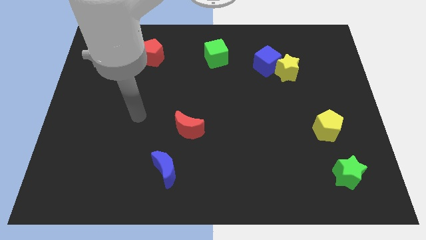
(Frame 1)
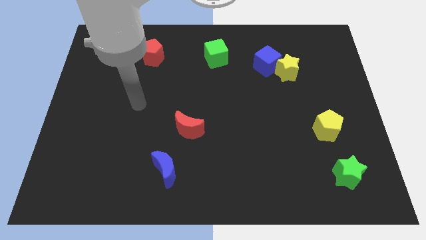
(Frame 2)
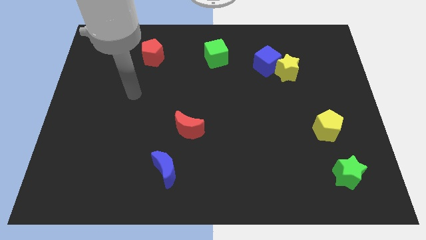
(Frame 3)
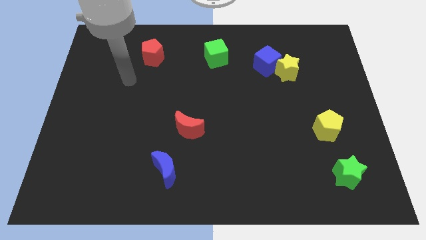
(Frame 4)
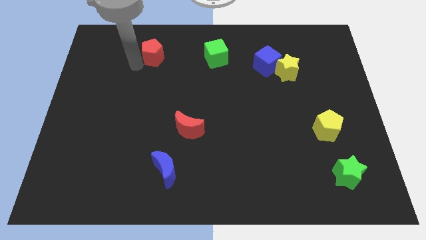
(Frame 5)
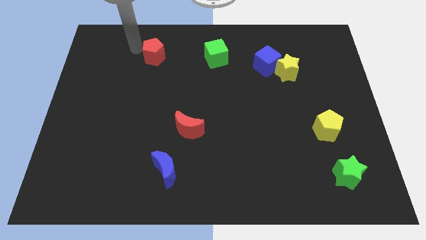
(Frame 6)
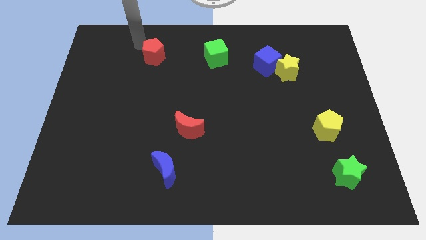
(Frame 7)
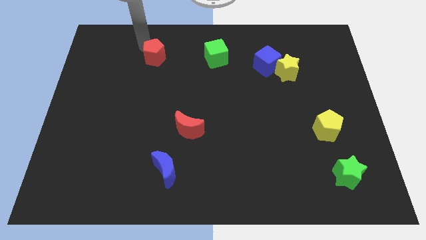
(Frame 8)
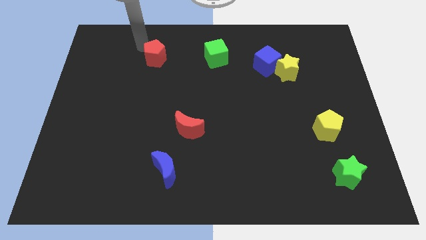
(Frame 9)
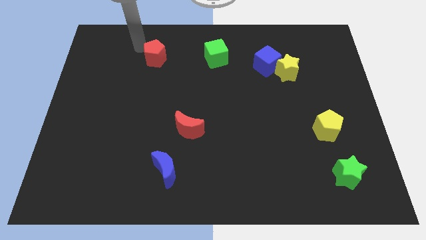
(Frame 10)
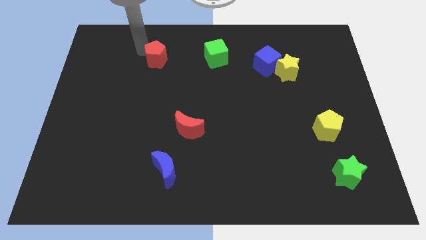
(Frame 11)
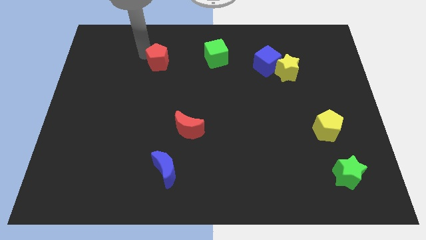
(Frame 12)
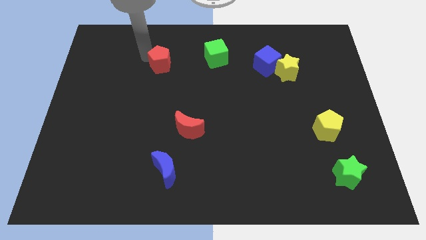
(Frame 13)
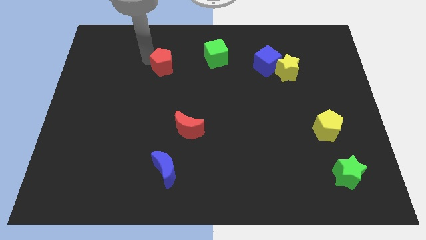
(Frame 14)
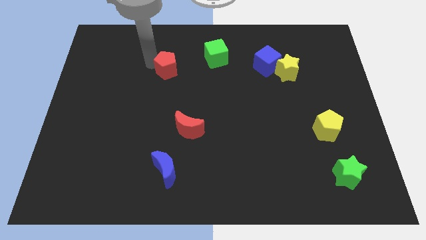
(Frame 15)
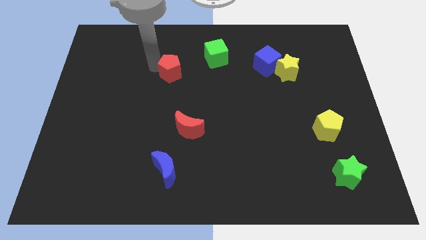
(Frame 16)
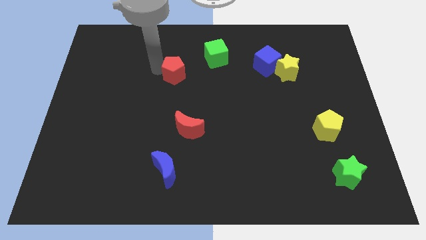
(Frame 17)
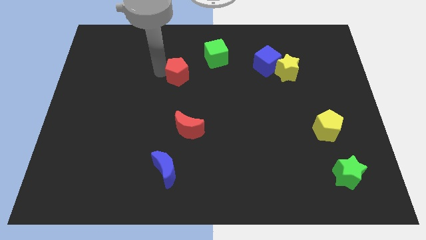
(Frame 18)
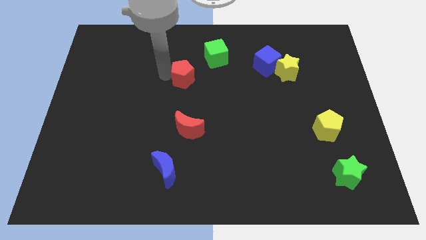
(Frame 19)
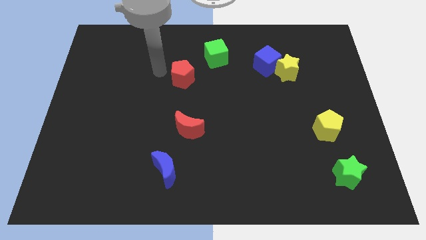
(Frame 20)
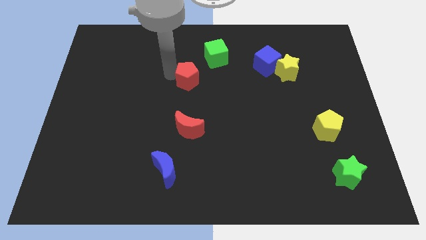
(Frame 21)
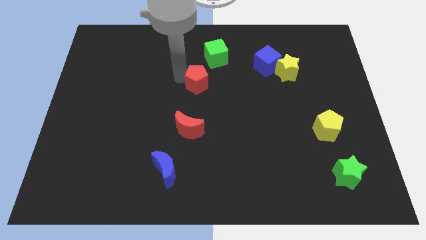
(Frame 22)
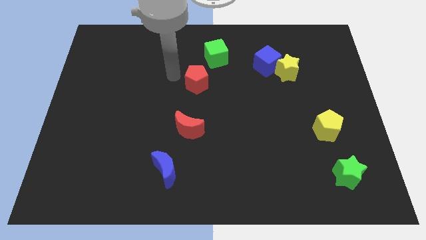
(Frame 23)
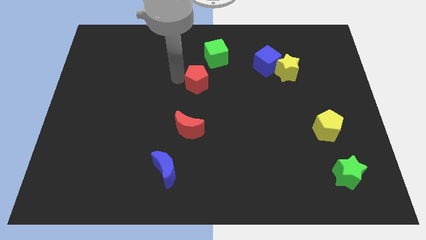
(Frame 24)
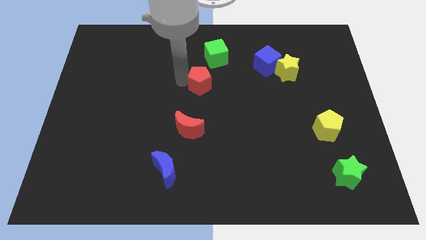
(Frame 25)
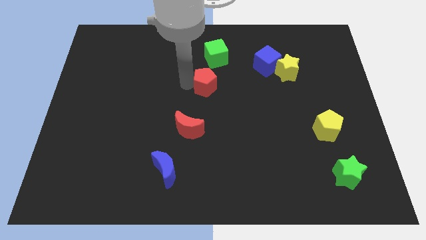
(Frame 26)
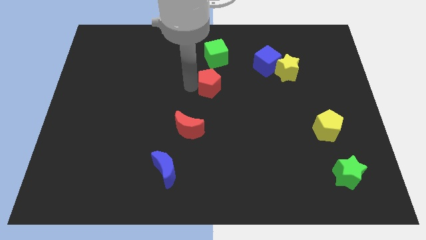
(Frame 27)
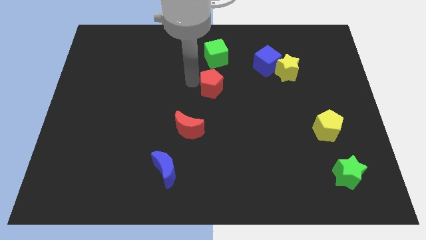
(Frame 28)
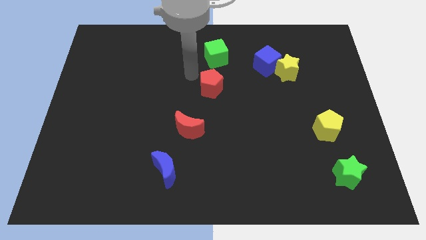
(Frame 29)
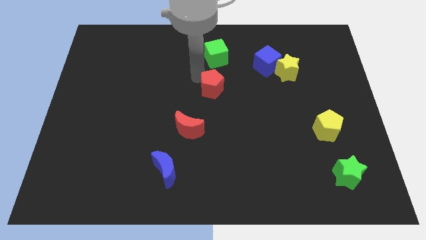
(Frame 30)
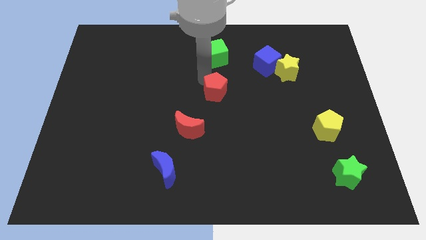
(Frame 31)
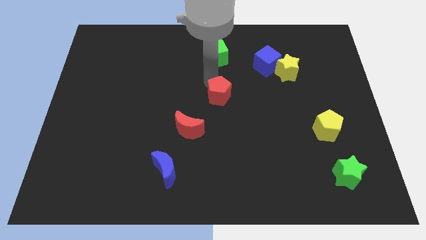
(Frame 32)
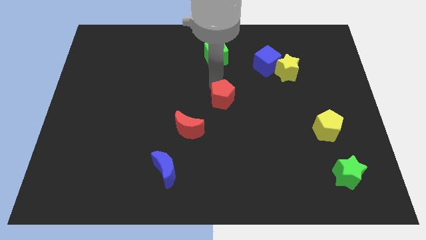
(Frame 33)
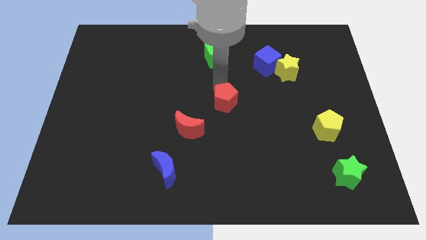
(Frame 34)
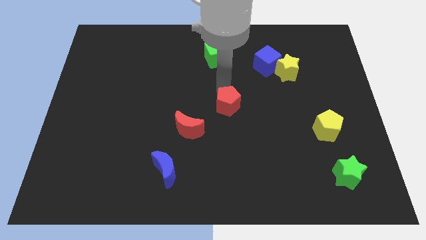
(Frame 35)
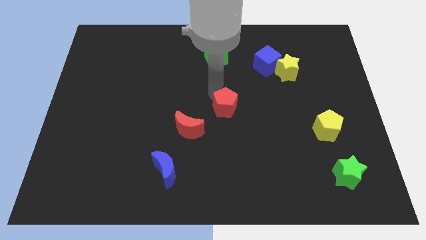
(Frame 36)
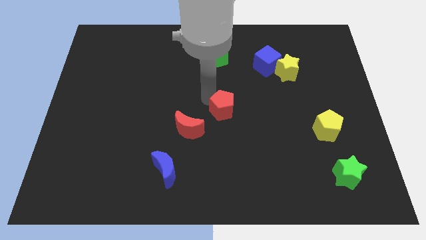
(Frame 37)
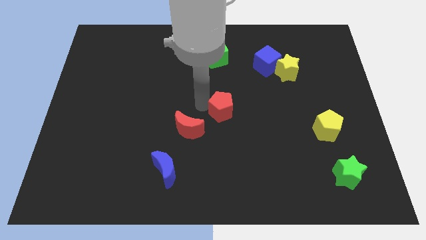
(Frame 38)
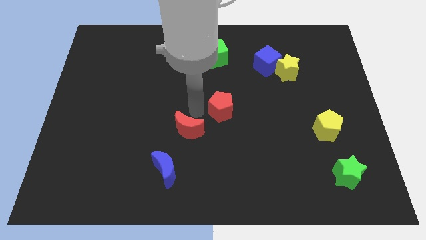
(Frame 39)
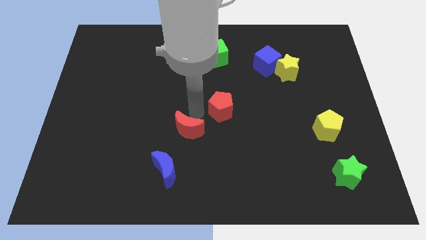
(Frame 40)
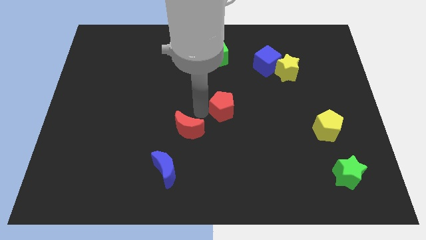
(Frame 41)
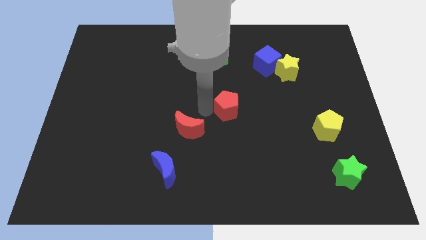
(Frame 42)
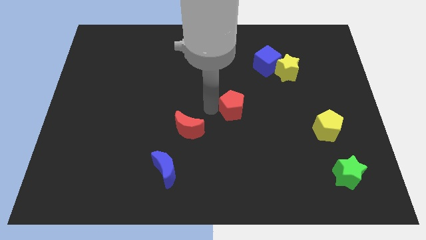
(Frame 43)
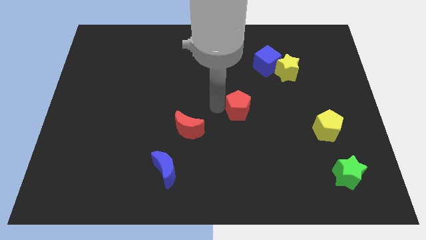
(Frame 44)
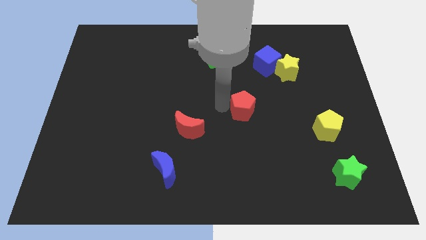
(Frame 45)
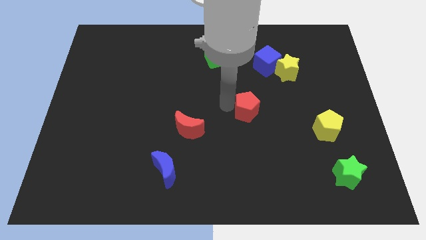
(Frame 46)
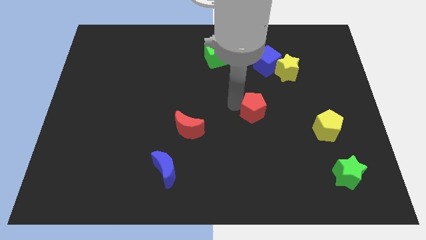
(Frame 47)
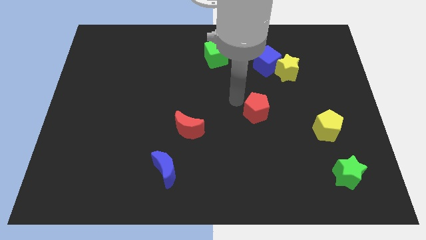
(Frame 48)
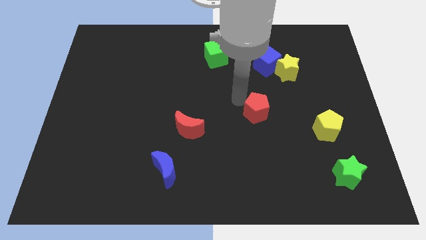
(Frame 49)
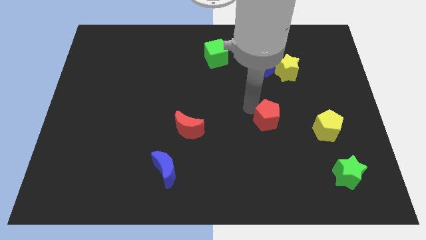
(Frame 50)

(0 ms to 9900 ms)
move the red pentagon to the left side of the yellow pentagon

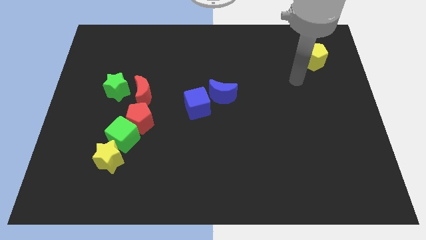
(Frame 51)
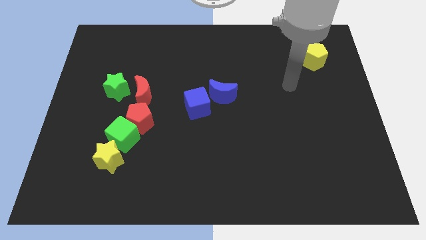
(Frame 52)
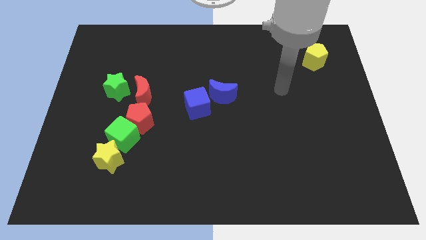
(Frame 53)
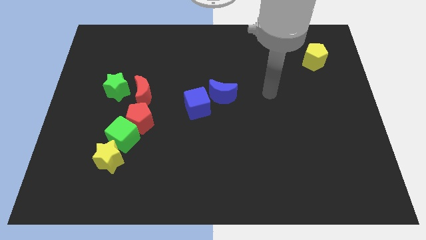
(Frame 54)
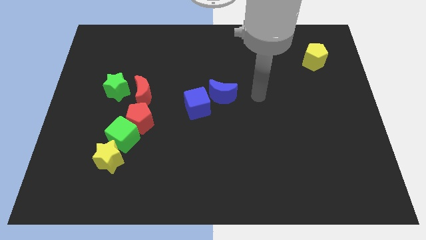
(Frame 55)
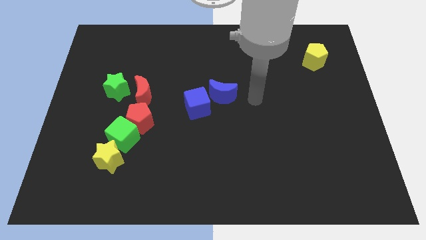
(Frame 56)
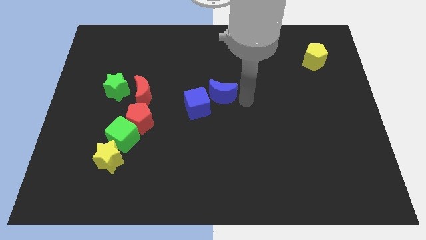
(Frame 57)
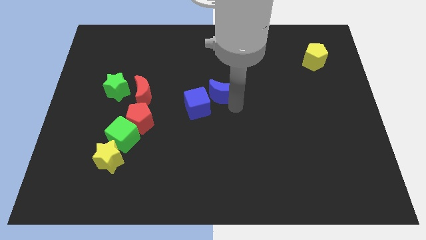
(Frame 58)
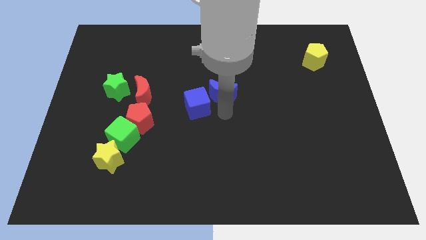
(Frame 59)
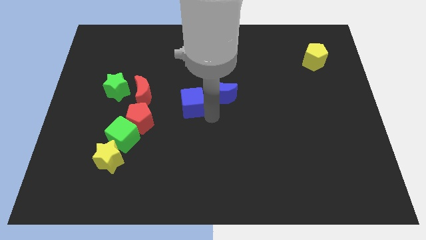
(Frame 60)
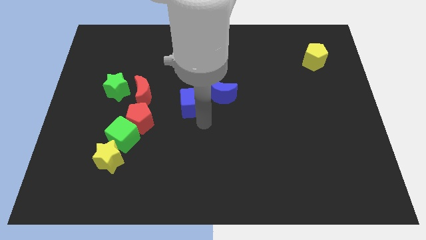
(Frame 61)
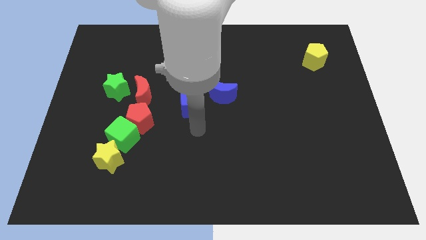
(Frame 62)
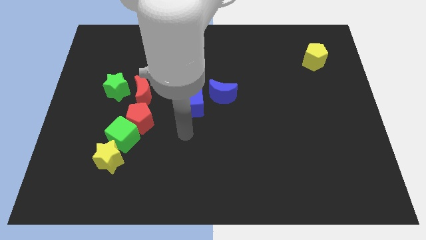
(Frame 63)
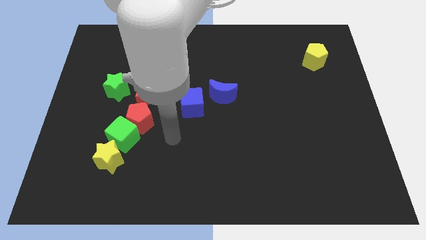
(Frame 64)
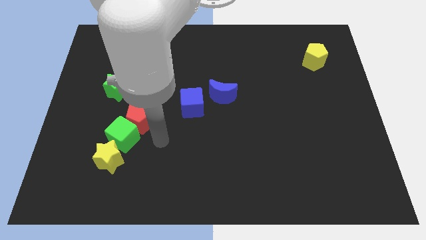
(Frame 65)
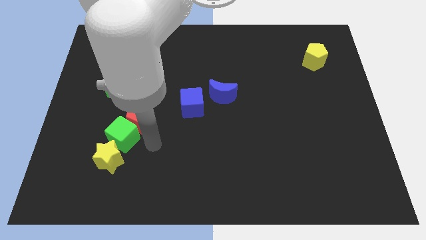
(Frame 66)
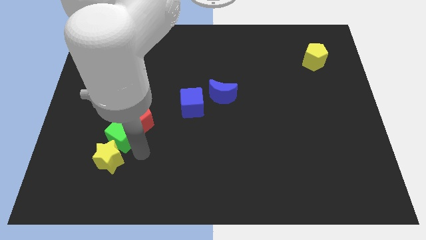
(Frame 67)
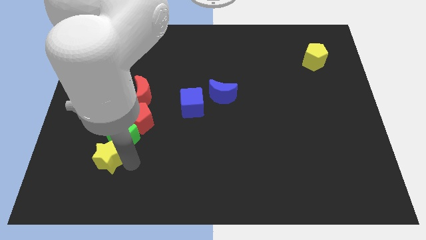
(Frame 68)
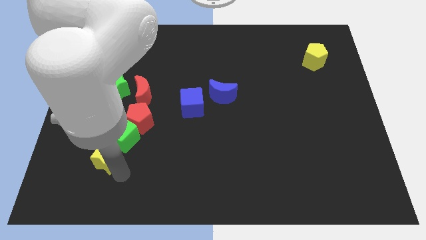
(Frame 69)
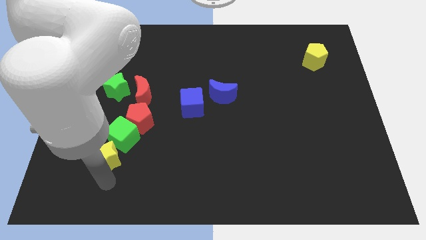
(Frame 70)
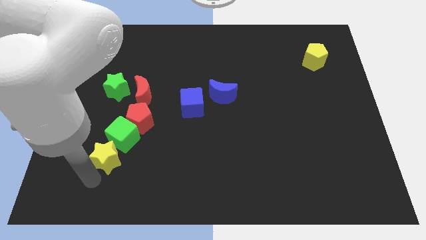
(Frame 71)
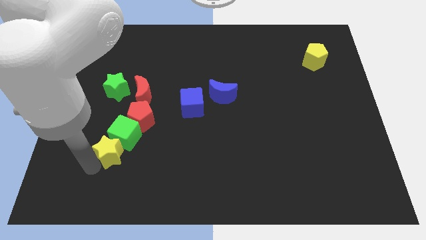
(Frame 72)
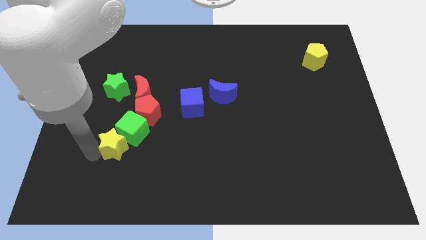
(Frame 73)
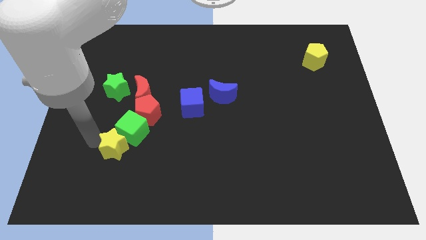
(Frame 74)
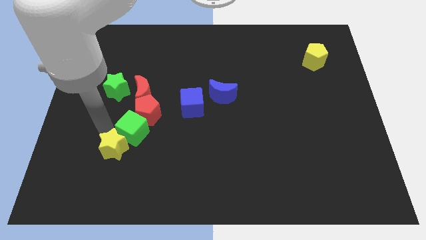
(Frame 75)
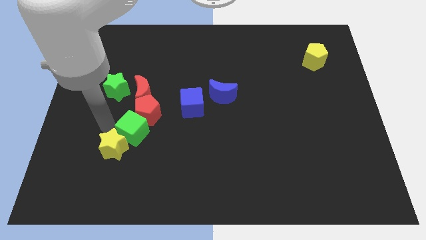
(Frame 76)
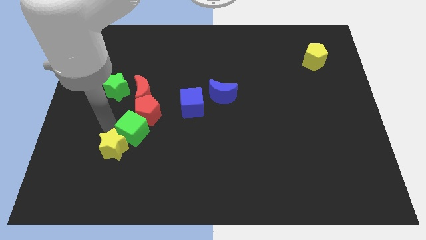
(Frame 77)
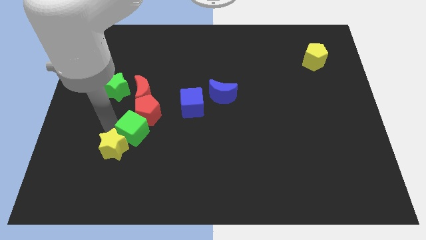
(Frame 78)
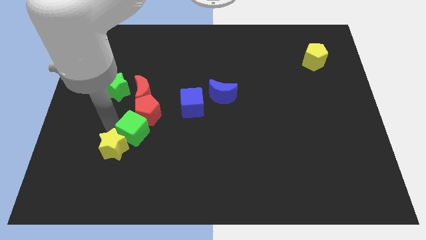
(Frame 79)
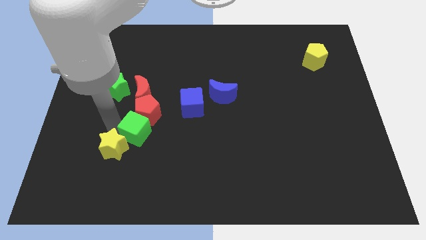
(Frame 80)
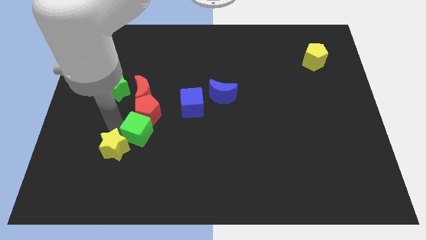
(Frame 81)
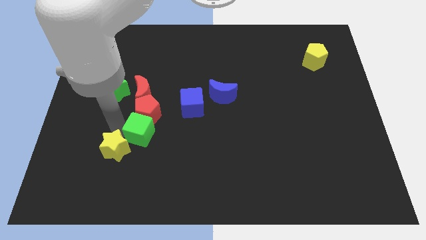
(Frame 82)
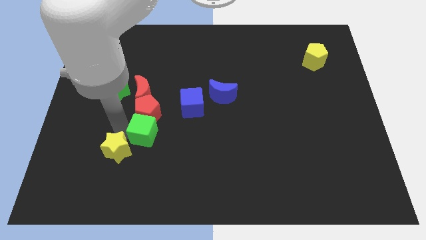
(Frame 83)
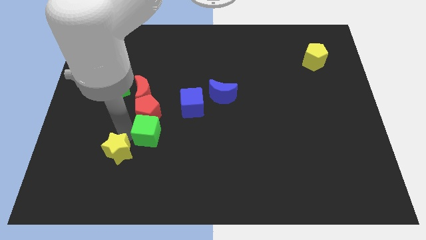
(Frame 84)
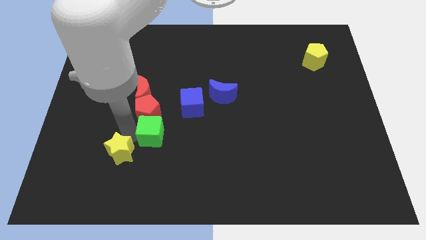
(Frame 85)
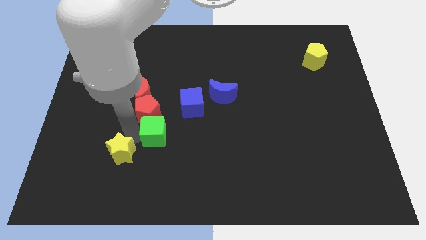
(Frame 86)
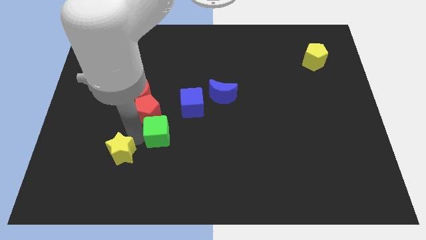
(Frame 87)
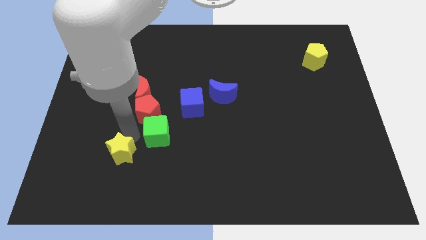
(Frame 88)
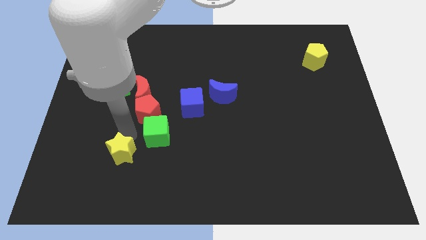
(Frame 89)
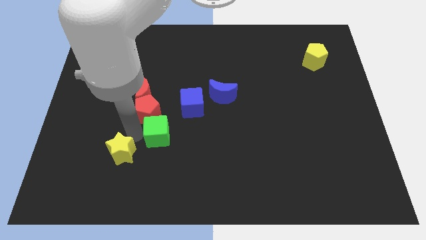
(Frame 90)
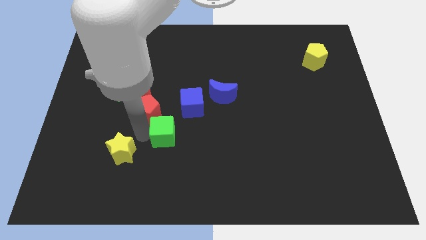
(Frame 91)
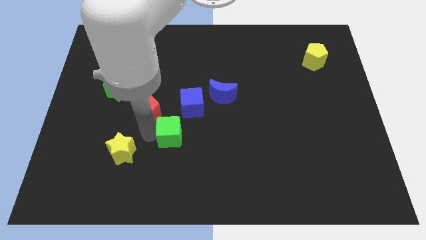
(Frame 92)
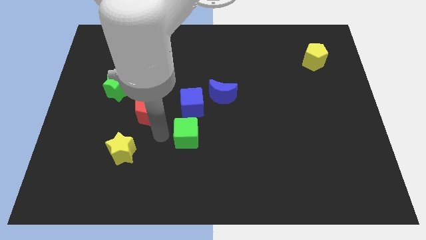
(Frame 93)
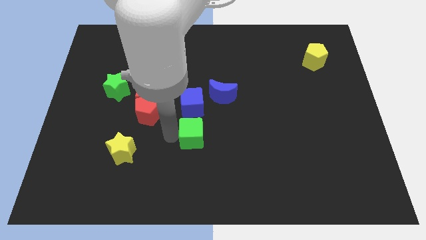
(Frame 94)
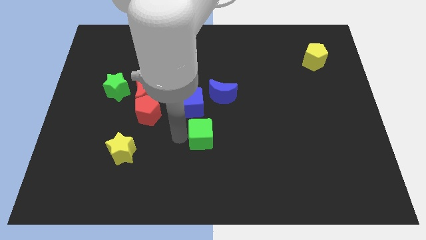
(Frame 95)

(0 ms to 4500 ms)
move the green cube to the bottom of the blue moon
